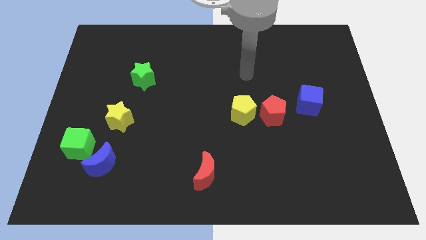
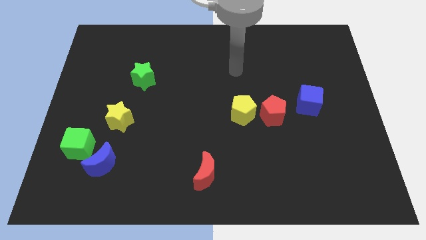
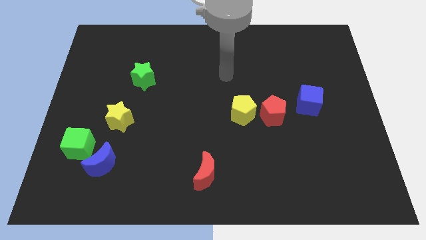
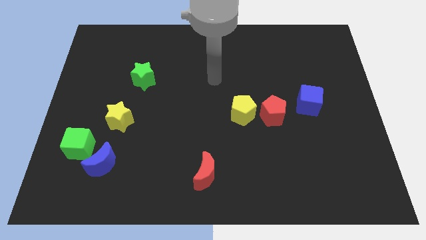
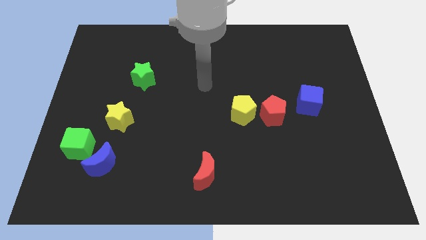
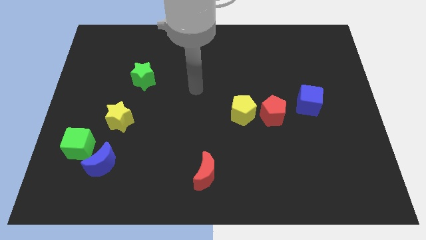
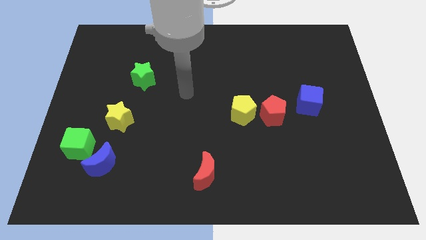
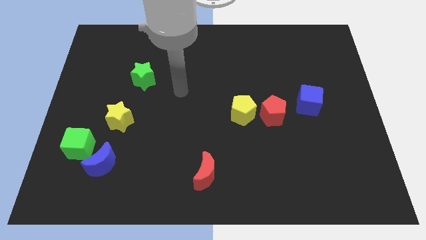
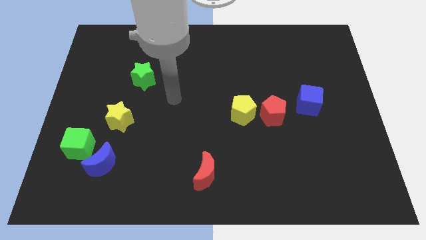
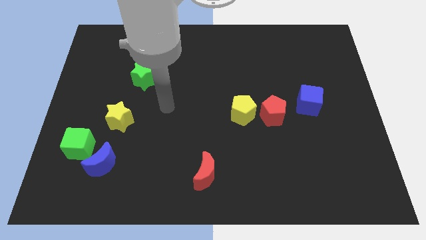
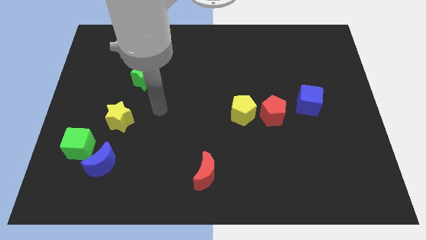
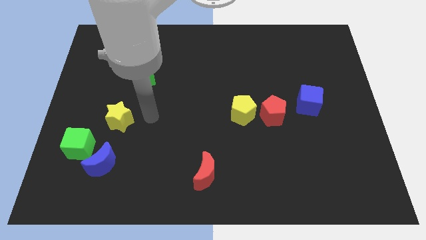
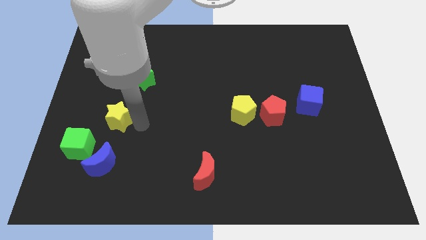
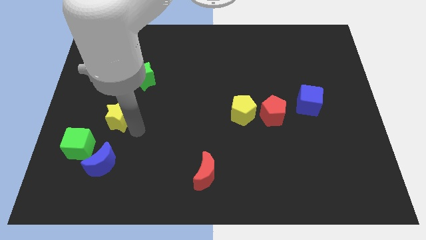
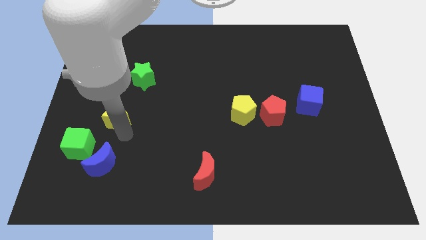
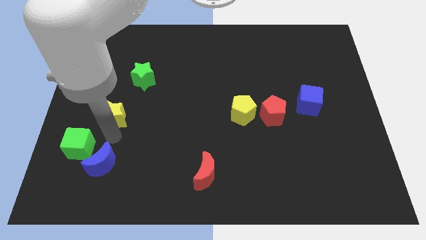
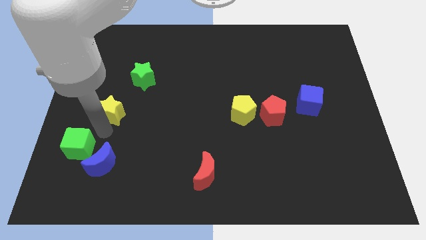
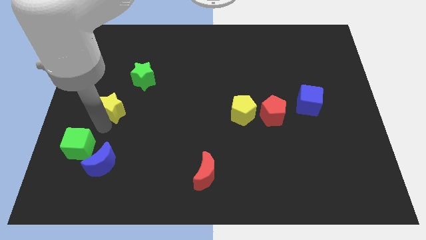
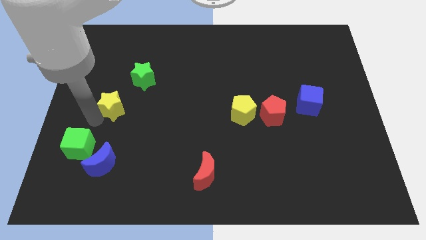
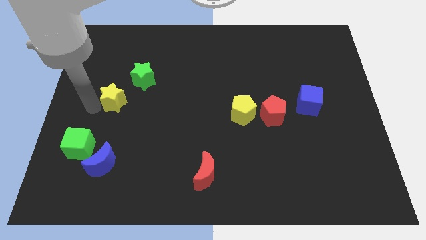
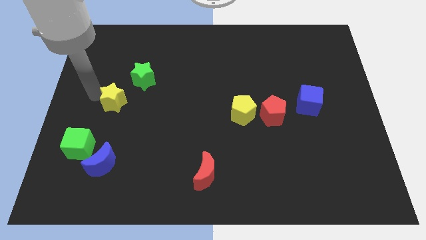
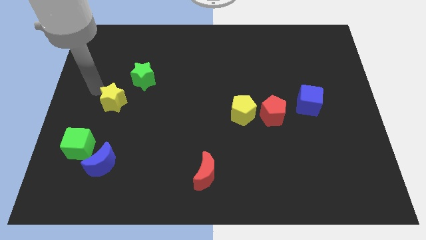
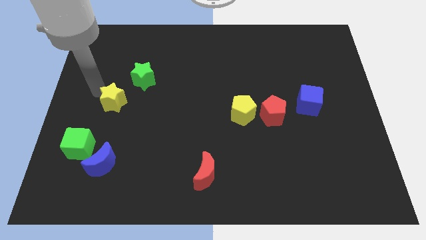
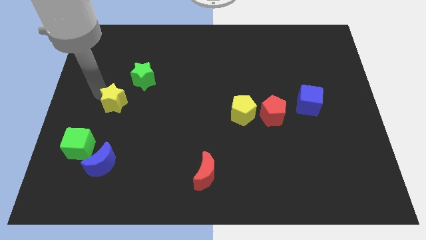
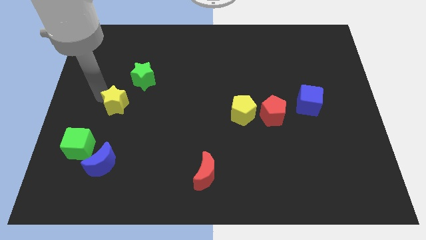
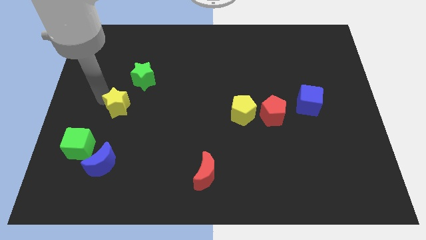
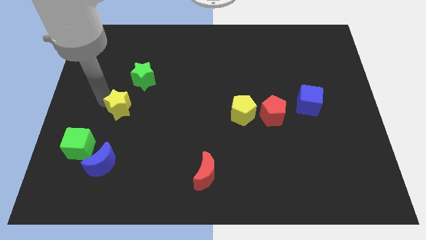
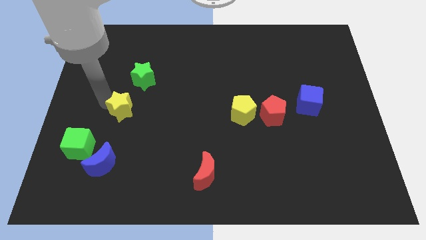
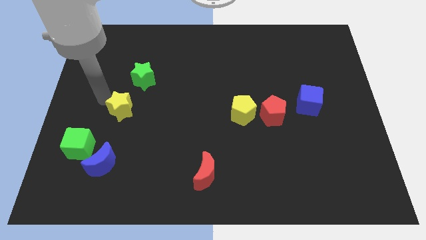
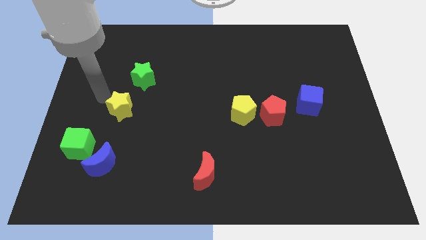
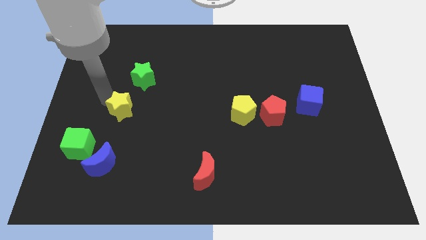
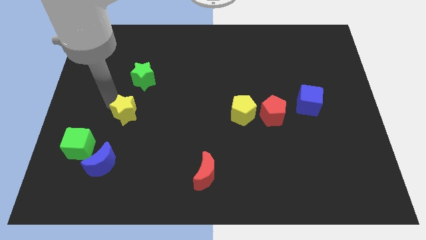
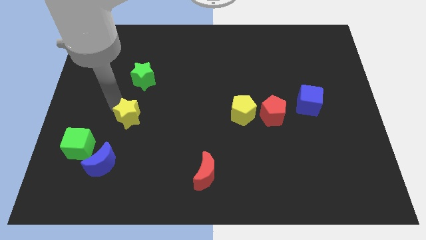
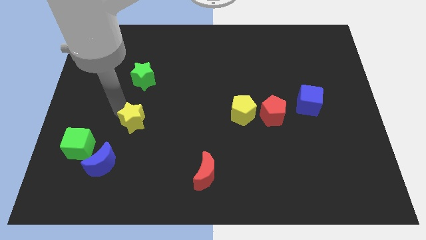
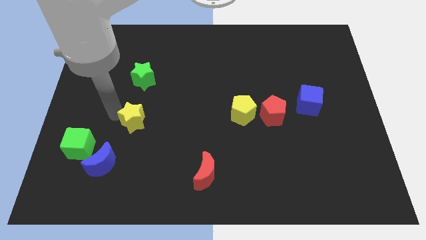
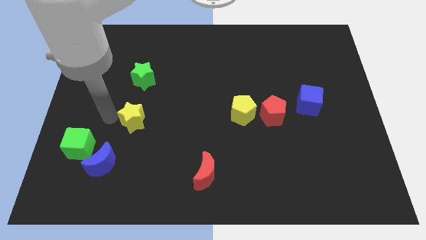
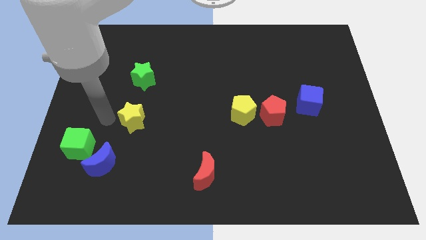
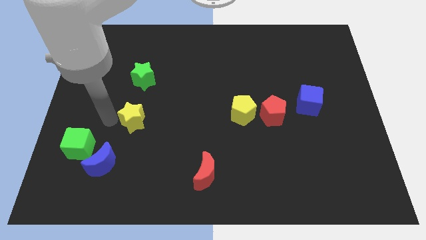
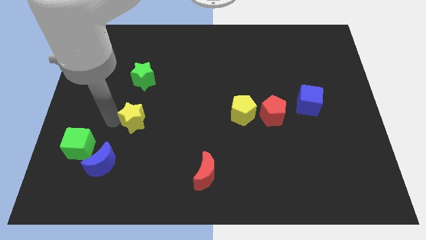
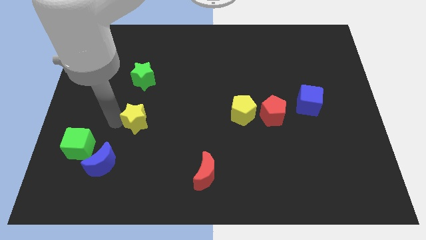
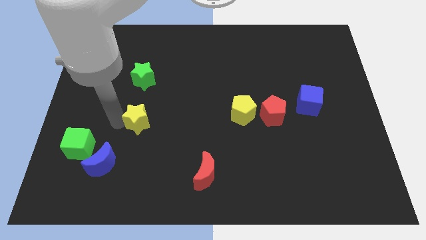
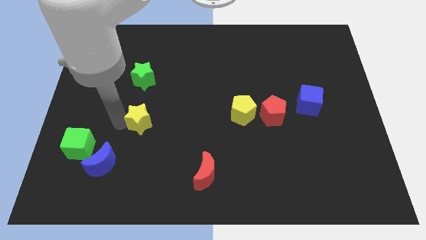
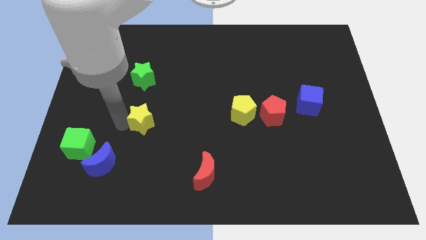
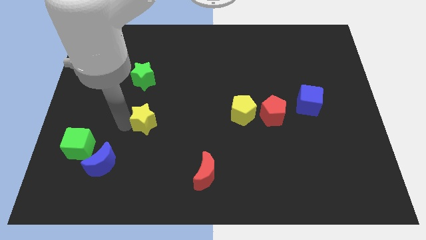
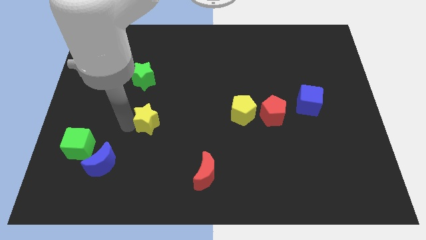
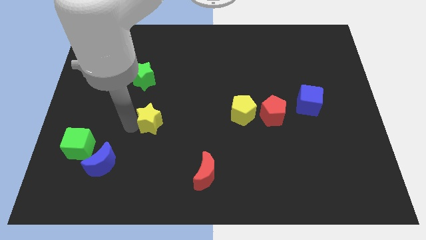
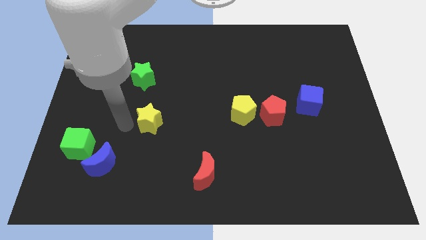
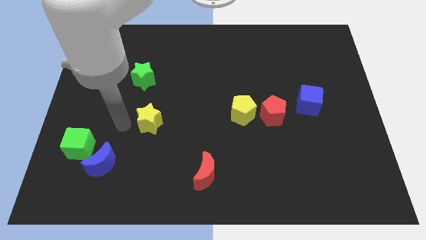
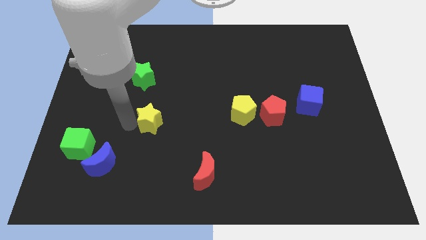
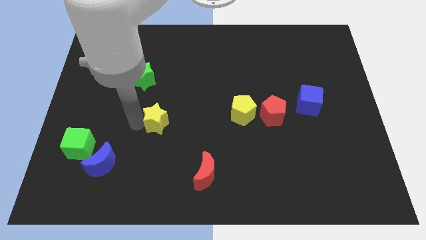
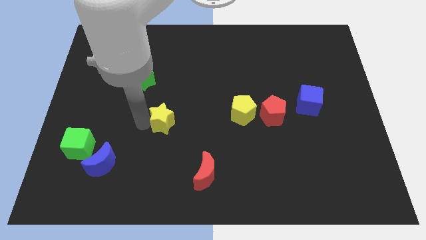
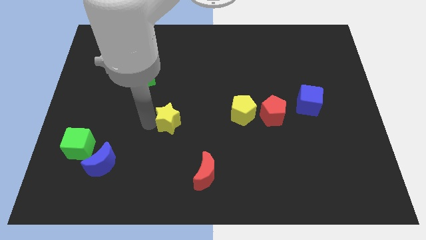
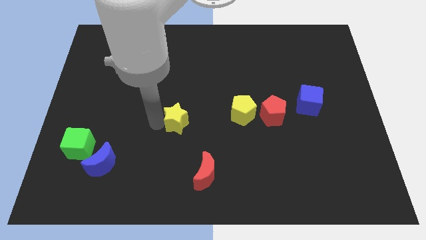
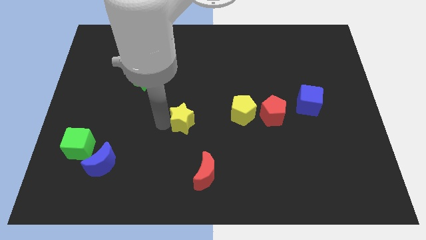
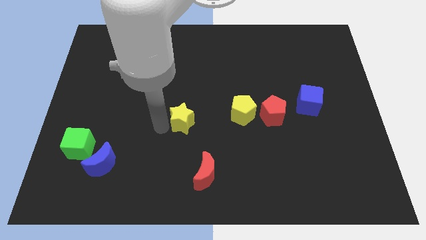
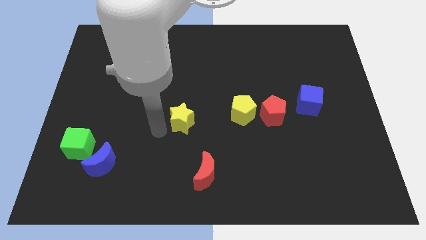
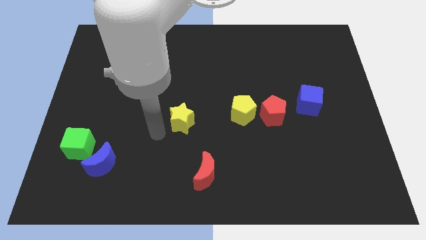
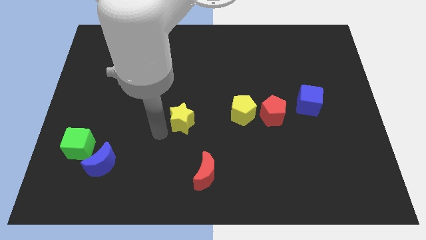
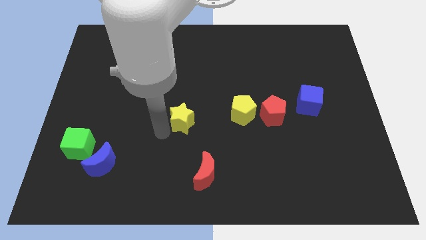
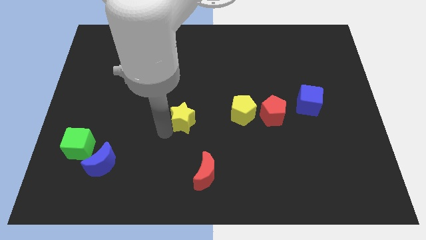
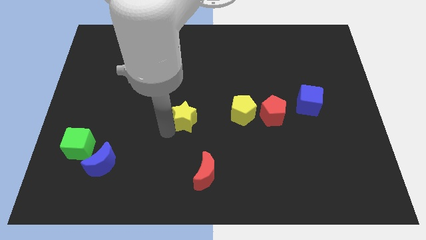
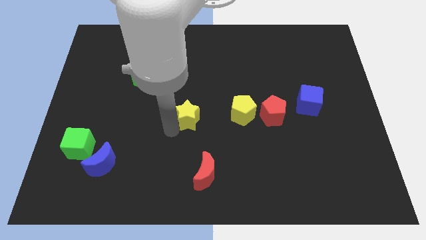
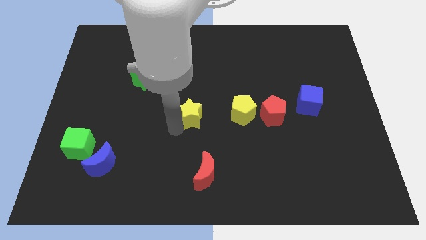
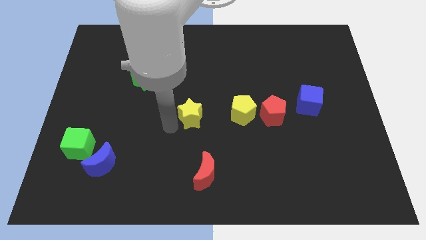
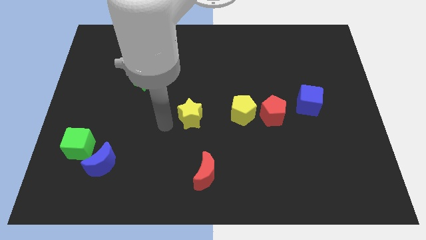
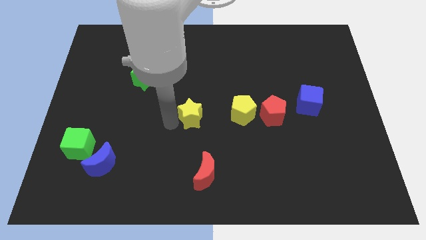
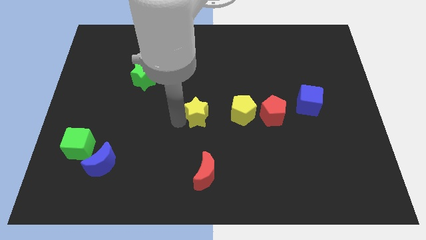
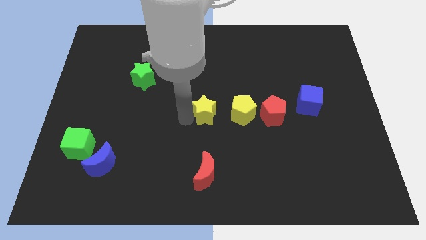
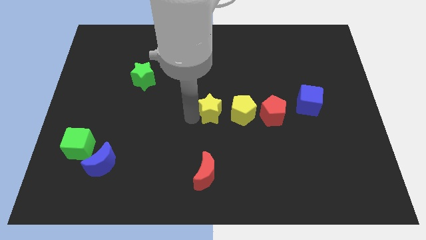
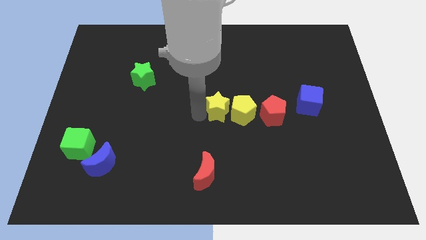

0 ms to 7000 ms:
push the yellow star towards the yellow pentagon

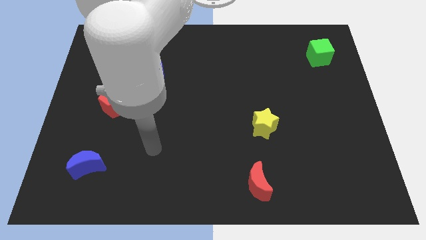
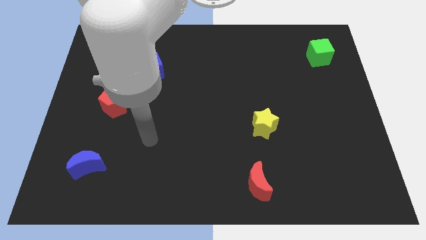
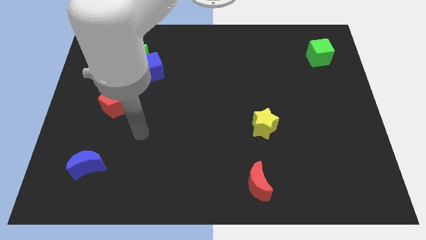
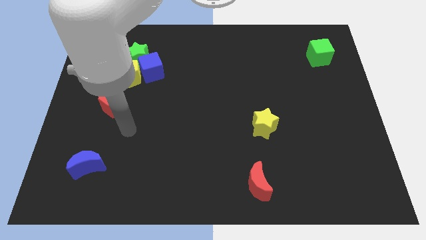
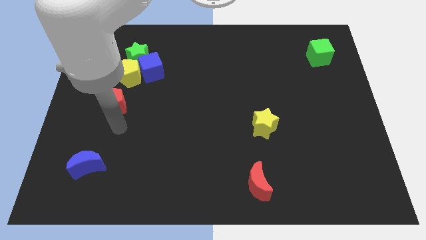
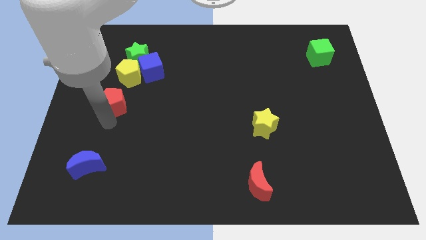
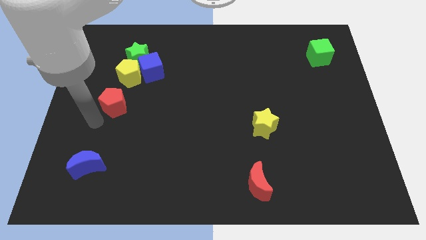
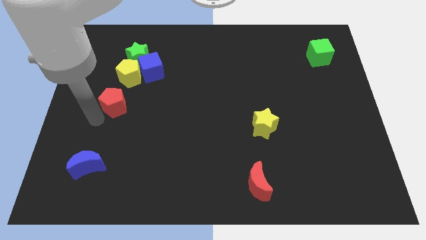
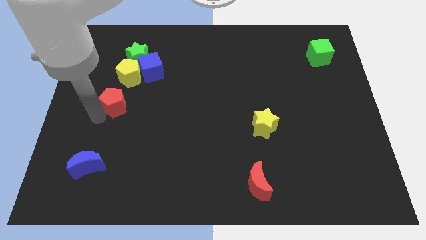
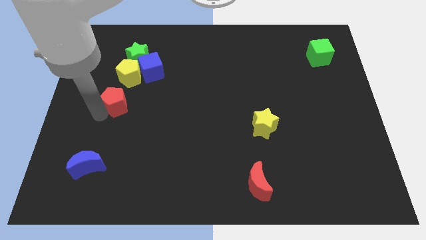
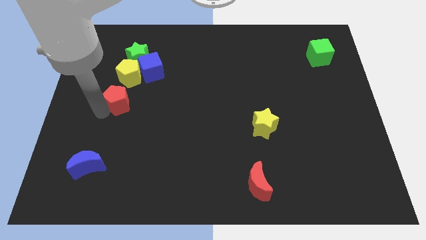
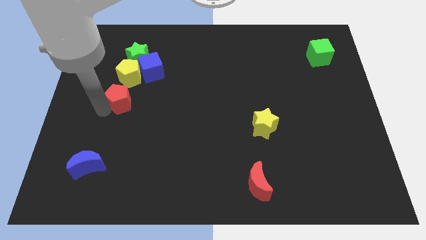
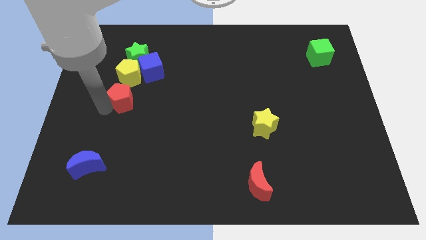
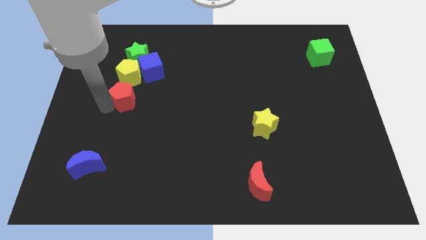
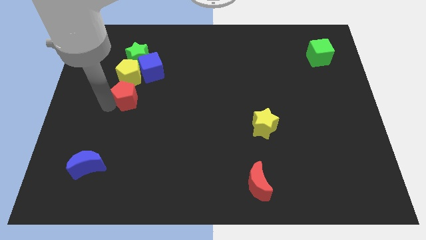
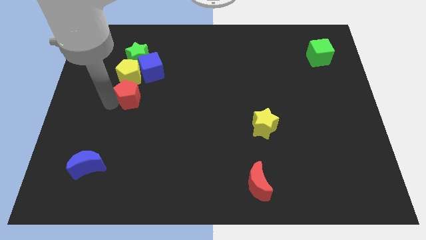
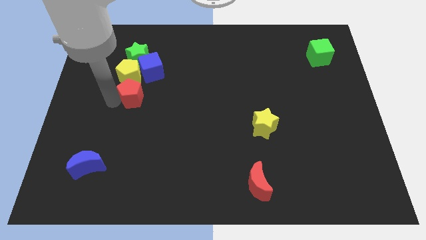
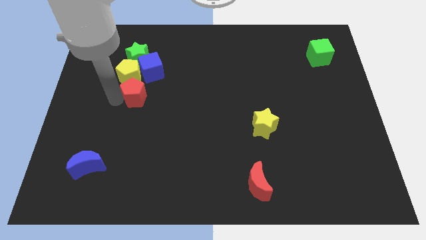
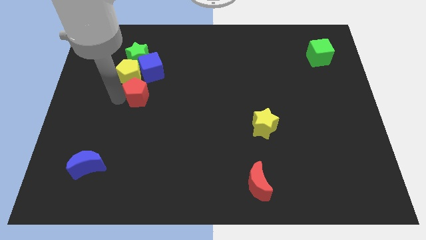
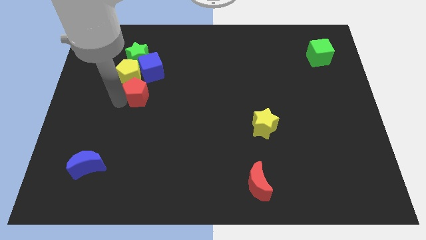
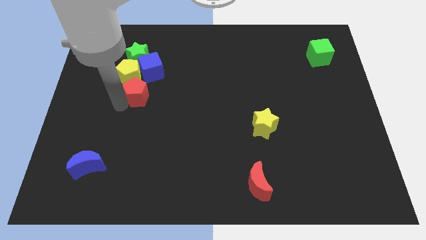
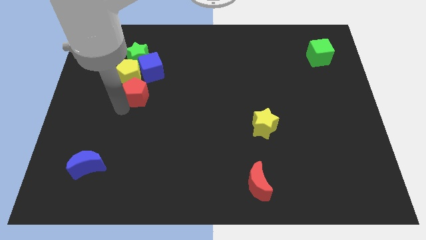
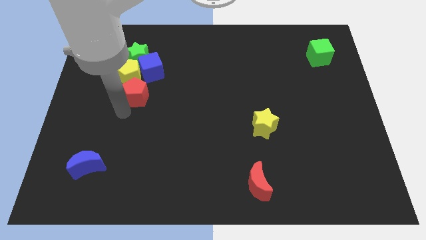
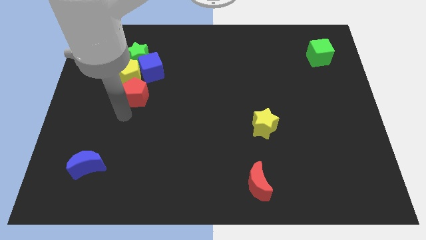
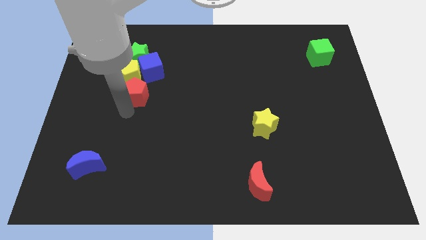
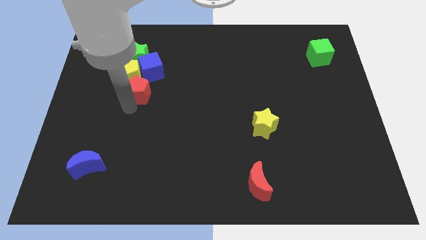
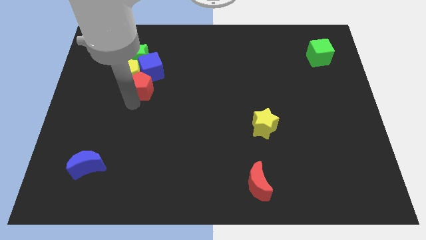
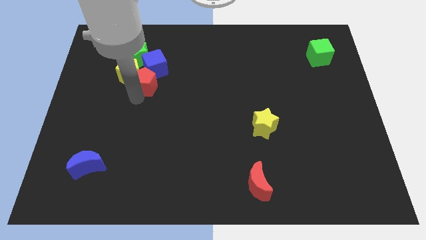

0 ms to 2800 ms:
put the red pentagon to the blue cube
